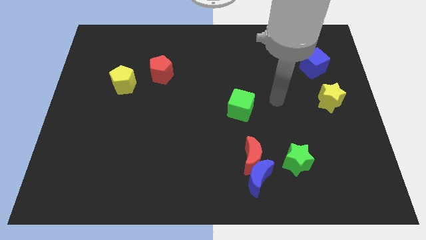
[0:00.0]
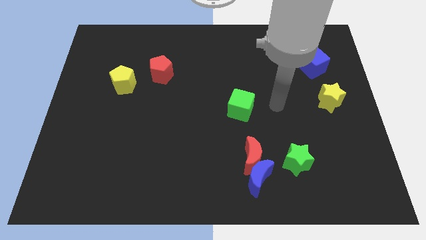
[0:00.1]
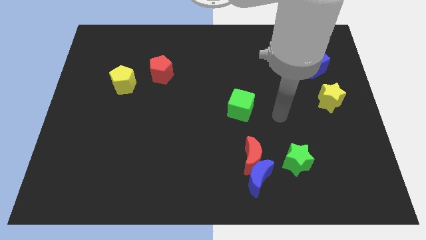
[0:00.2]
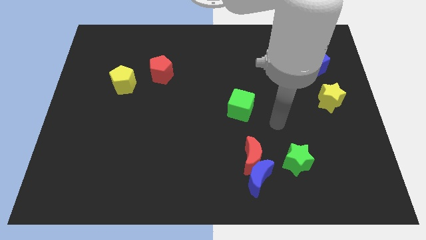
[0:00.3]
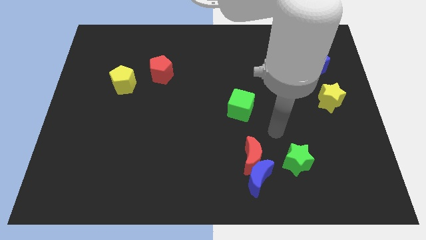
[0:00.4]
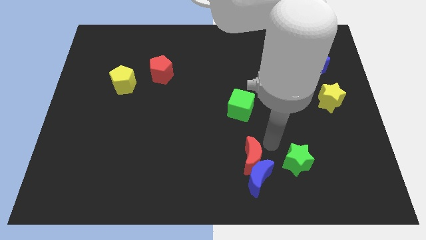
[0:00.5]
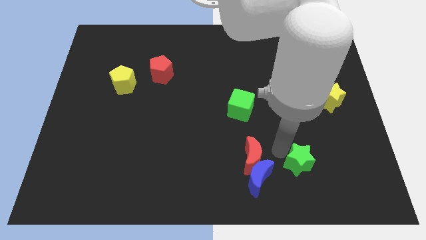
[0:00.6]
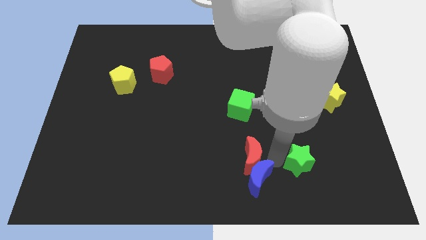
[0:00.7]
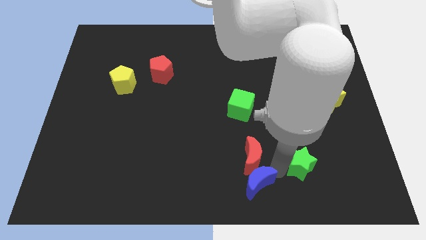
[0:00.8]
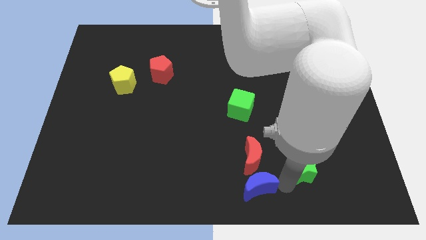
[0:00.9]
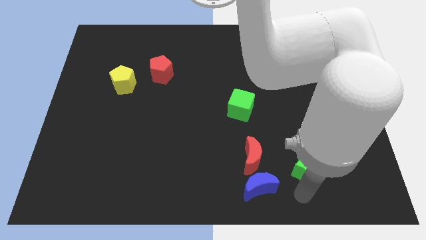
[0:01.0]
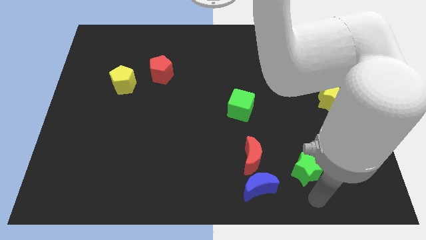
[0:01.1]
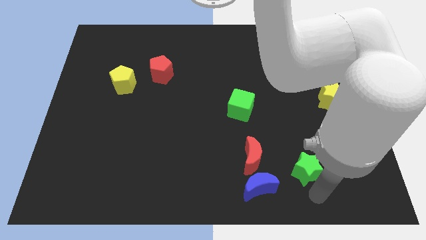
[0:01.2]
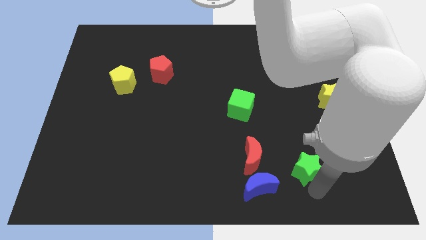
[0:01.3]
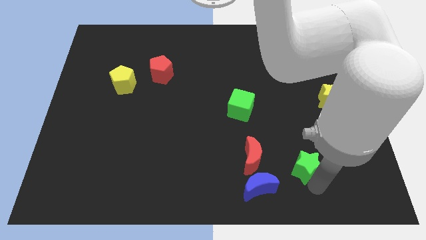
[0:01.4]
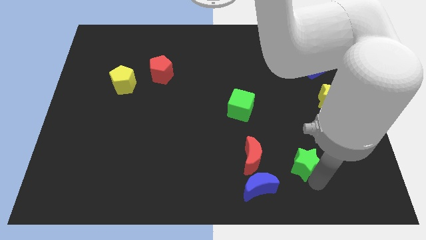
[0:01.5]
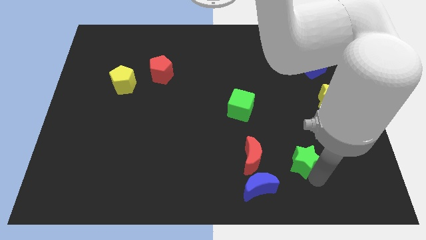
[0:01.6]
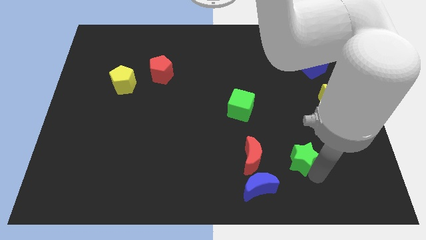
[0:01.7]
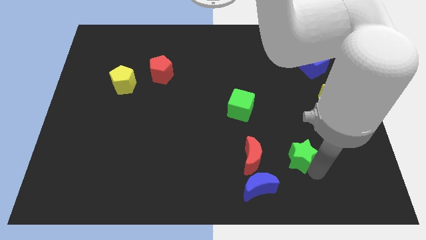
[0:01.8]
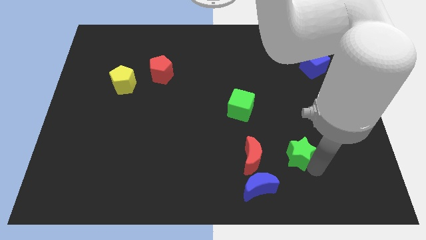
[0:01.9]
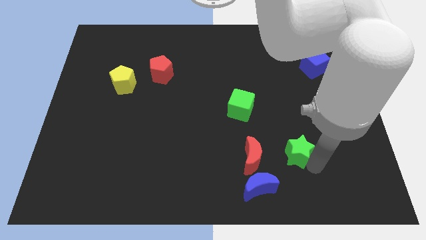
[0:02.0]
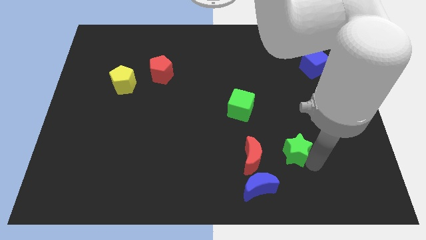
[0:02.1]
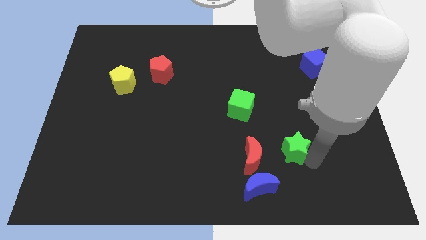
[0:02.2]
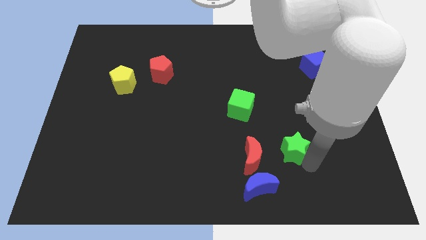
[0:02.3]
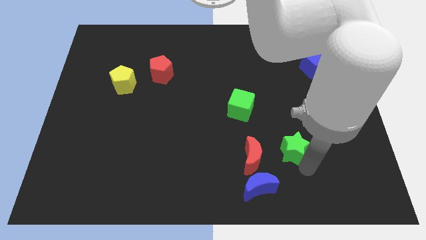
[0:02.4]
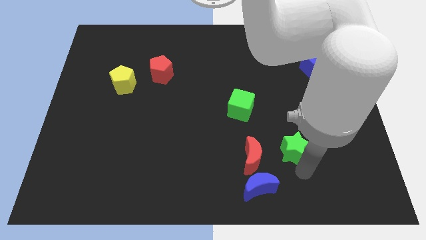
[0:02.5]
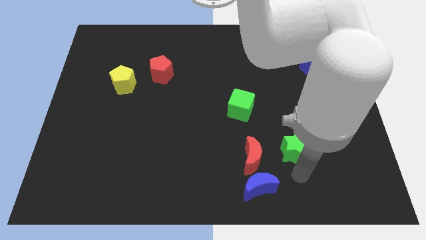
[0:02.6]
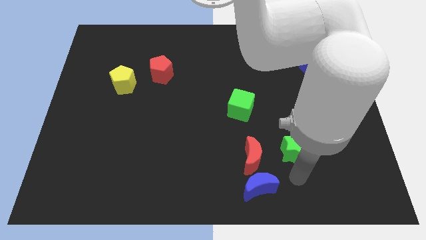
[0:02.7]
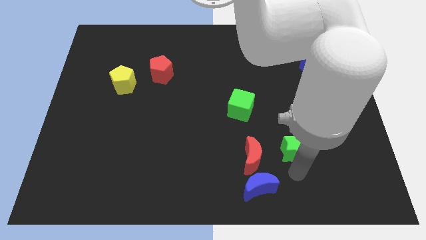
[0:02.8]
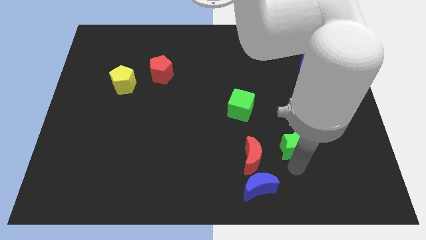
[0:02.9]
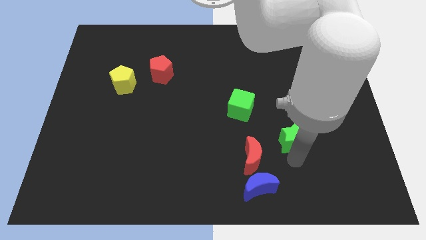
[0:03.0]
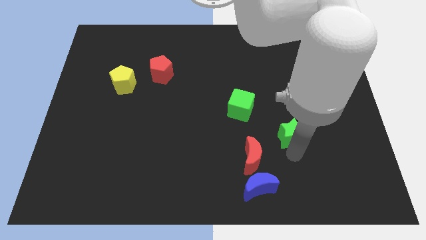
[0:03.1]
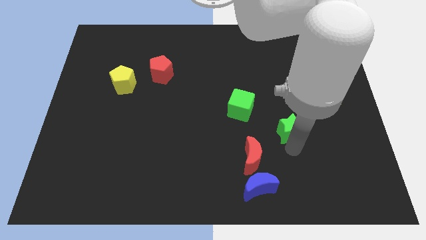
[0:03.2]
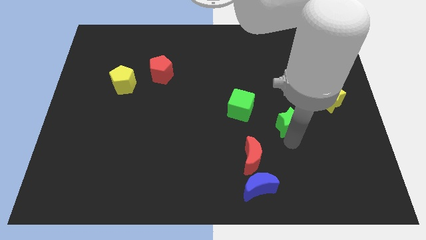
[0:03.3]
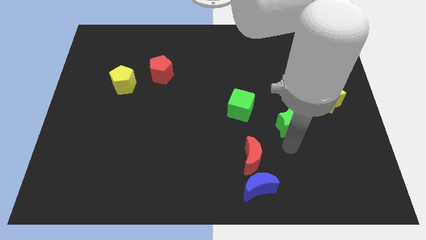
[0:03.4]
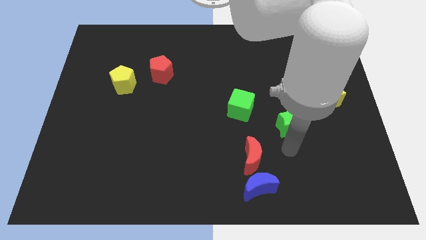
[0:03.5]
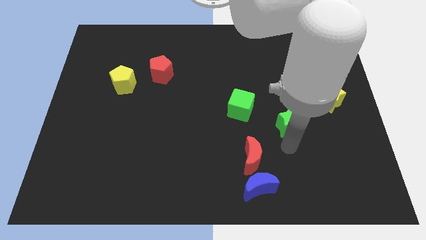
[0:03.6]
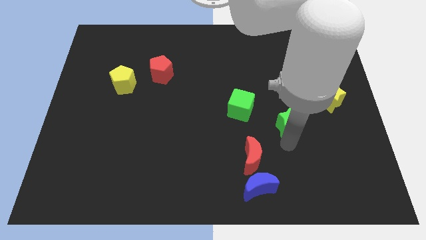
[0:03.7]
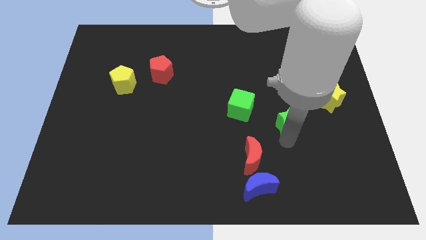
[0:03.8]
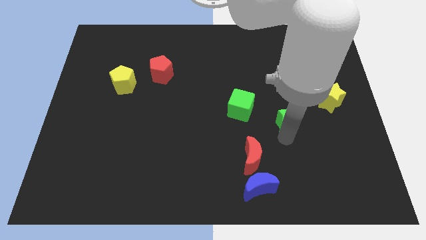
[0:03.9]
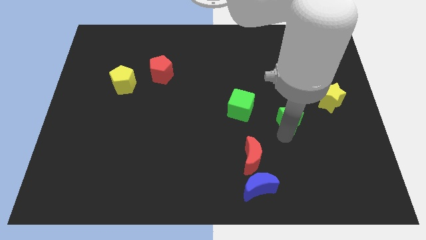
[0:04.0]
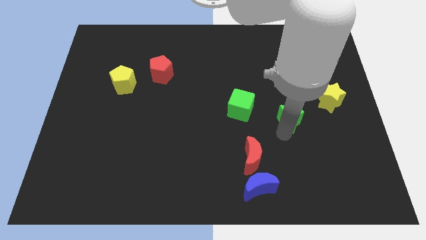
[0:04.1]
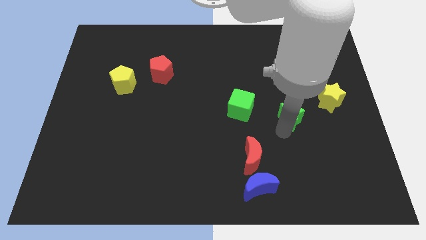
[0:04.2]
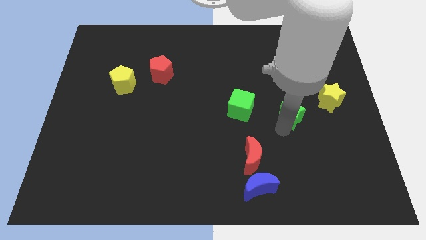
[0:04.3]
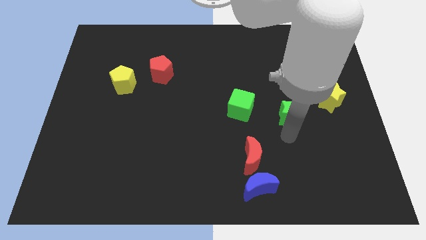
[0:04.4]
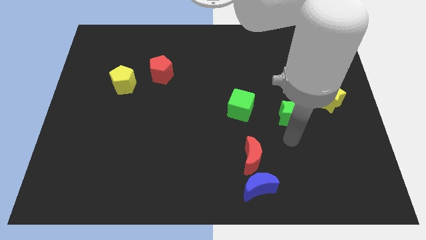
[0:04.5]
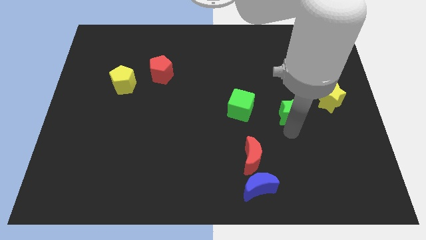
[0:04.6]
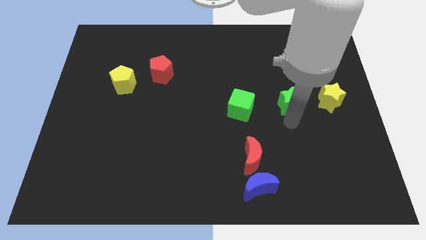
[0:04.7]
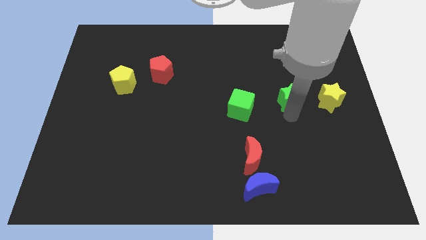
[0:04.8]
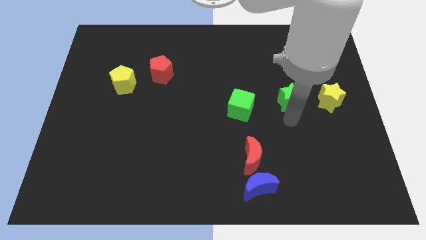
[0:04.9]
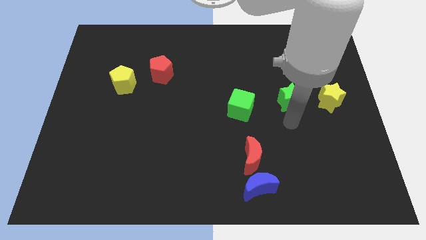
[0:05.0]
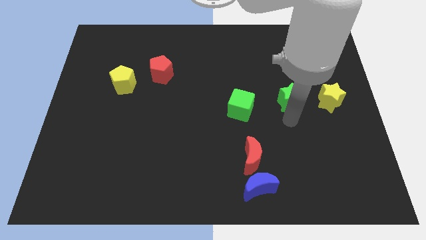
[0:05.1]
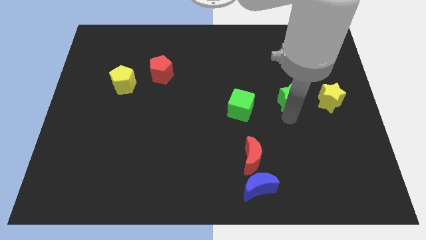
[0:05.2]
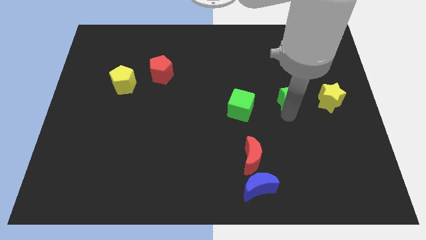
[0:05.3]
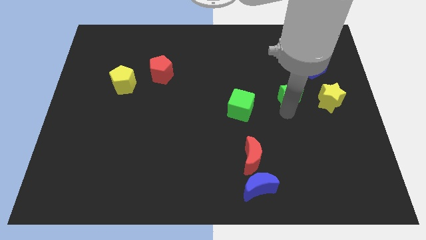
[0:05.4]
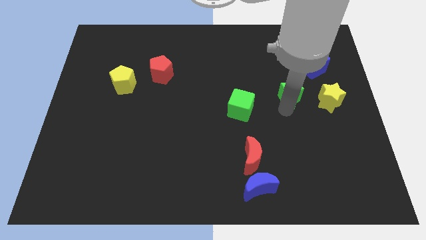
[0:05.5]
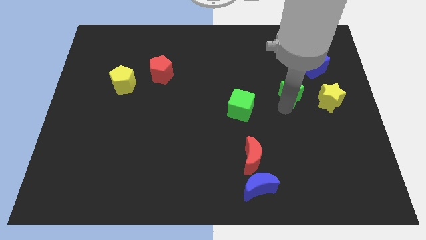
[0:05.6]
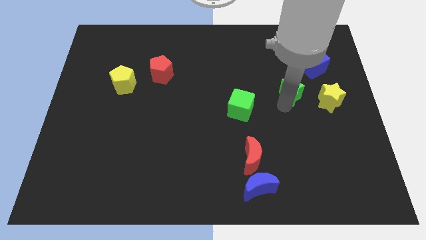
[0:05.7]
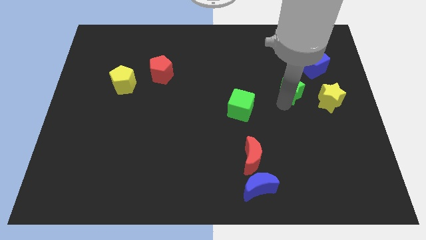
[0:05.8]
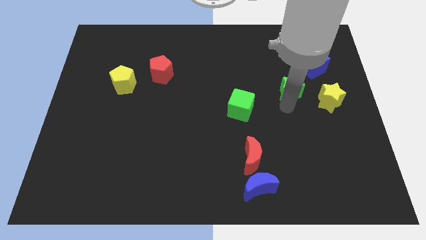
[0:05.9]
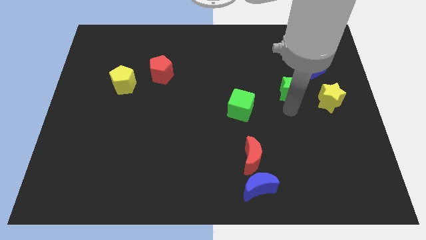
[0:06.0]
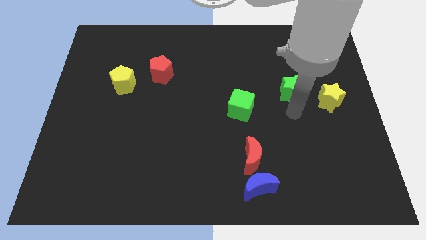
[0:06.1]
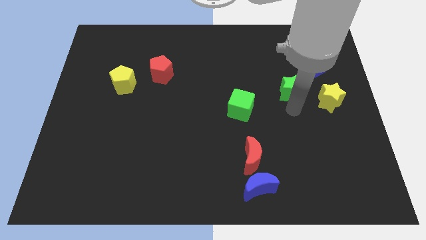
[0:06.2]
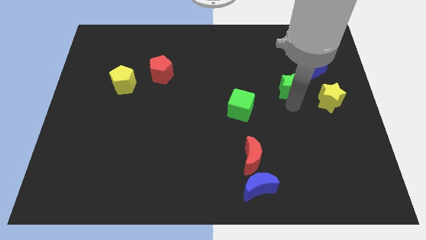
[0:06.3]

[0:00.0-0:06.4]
push the green star upwards

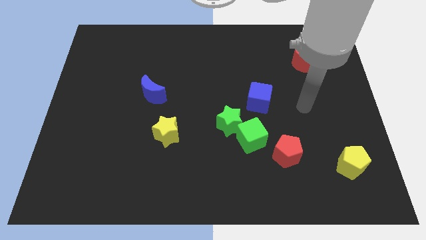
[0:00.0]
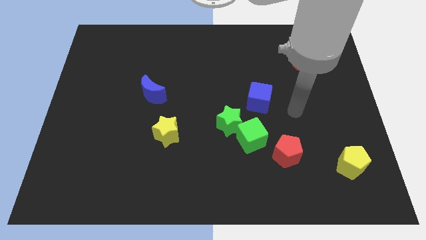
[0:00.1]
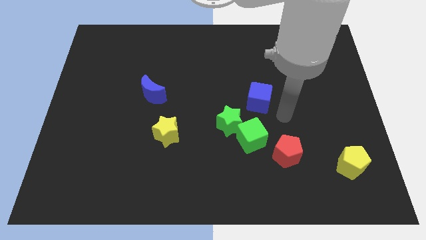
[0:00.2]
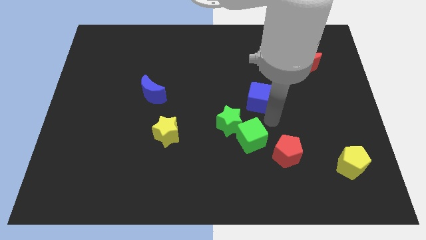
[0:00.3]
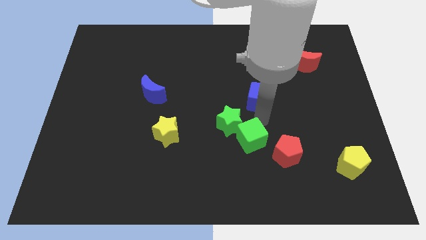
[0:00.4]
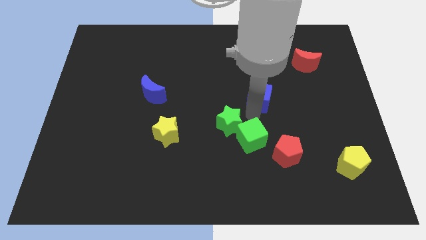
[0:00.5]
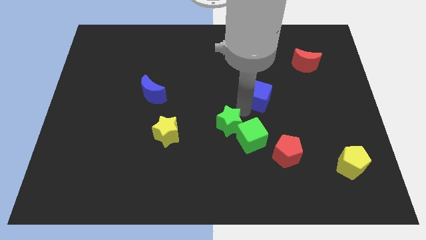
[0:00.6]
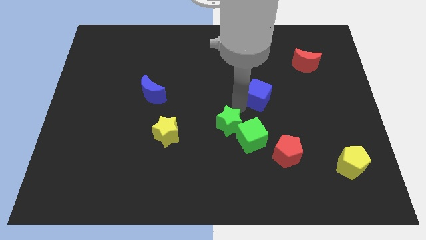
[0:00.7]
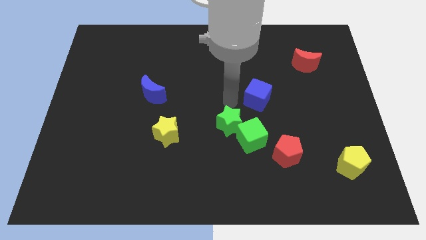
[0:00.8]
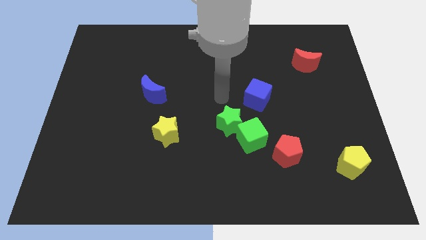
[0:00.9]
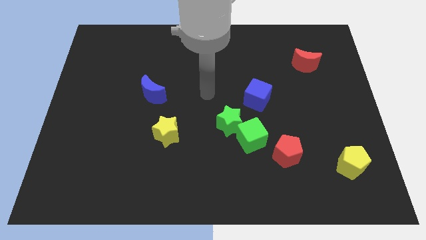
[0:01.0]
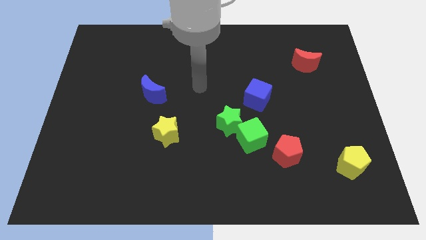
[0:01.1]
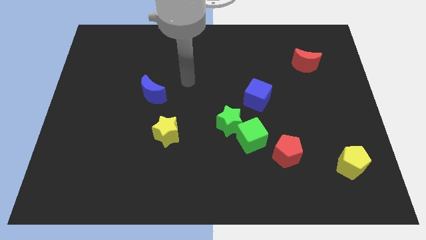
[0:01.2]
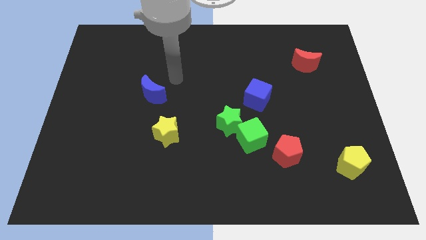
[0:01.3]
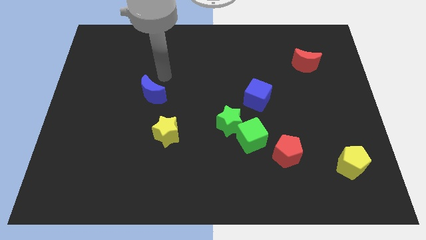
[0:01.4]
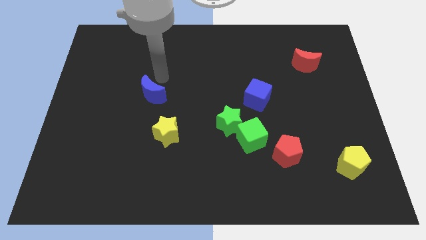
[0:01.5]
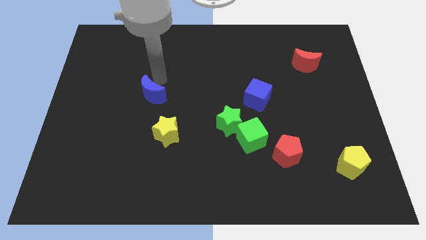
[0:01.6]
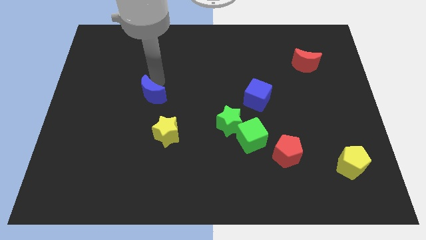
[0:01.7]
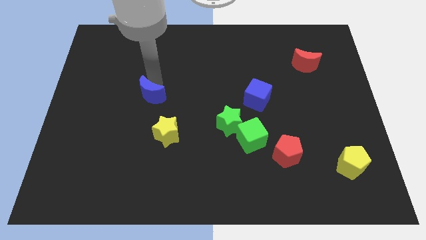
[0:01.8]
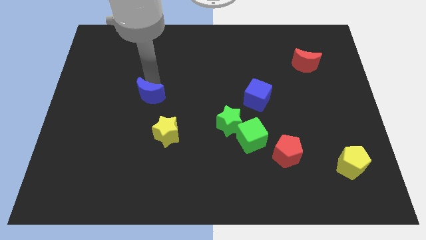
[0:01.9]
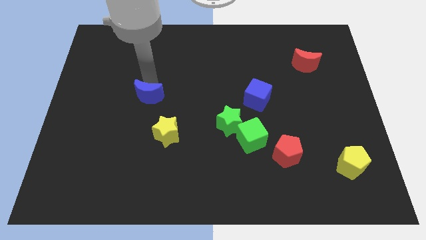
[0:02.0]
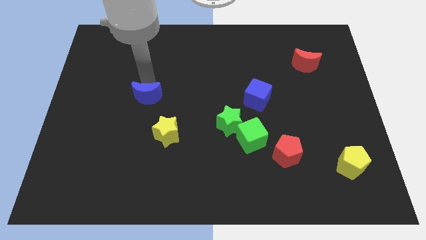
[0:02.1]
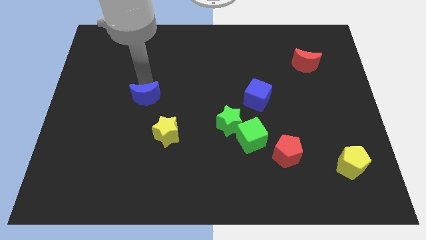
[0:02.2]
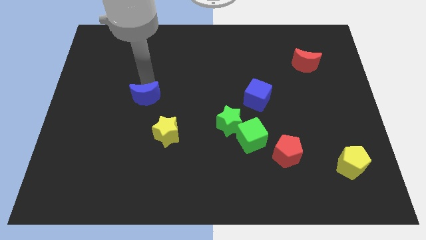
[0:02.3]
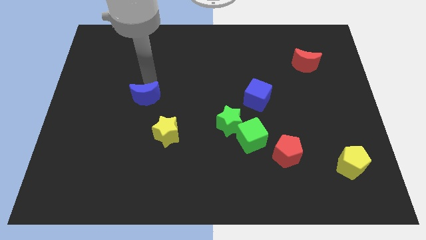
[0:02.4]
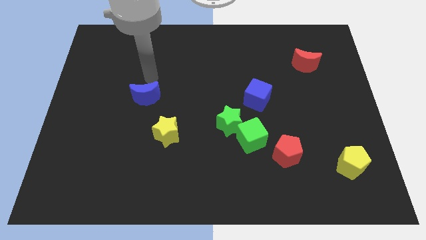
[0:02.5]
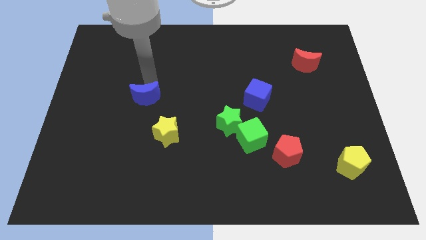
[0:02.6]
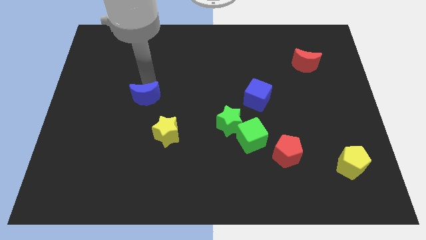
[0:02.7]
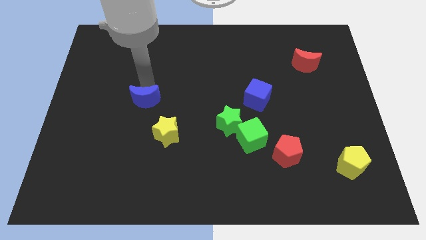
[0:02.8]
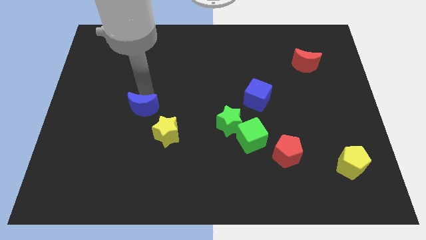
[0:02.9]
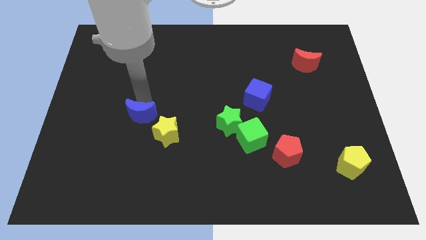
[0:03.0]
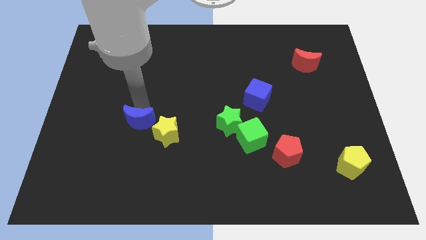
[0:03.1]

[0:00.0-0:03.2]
slightly move the blue moon downwards
